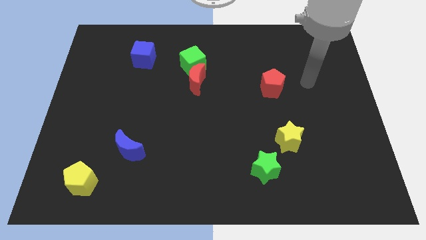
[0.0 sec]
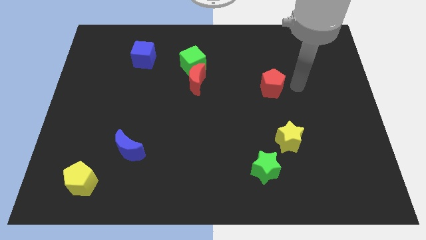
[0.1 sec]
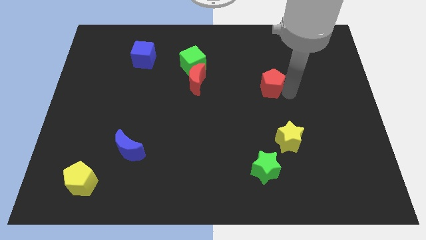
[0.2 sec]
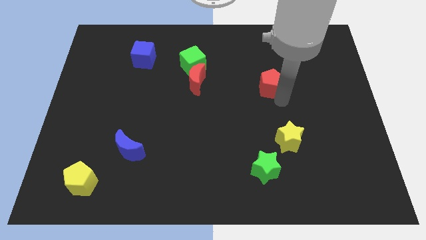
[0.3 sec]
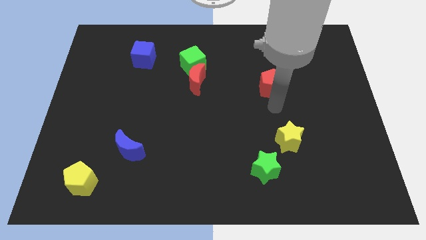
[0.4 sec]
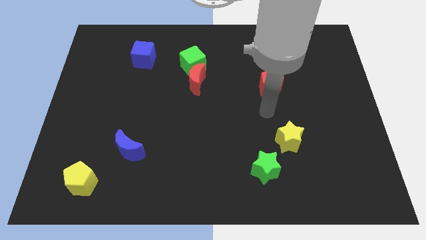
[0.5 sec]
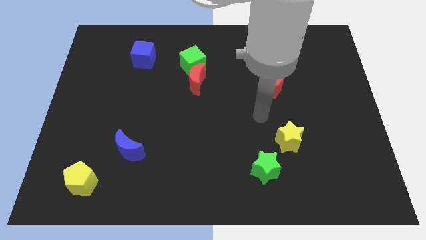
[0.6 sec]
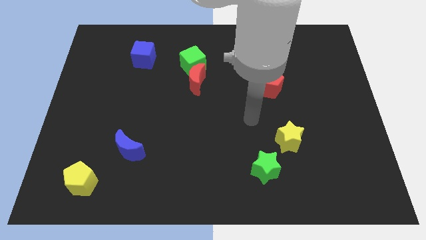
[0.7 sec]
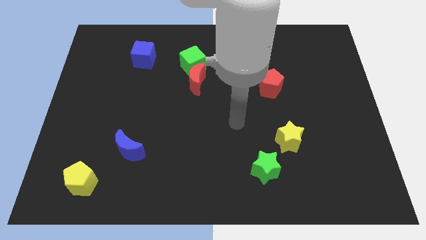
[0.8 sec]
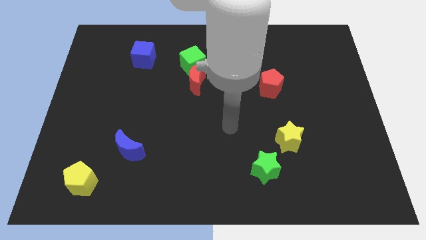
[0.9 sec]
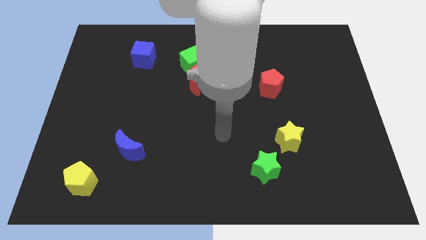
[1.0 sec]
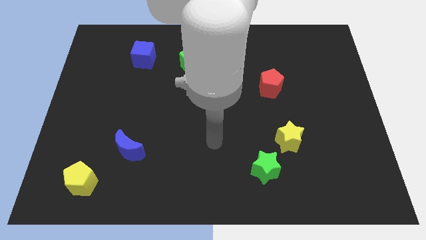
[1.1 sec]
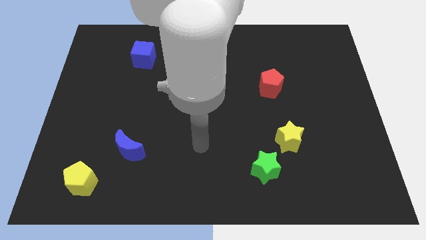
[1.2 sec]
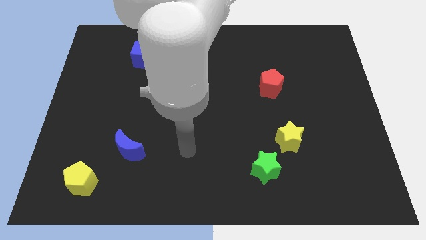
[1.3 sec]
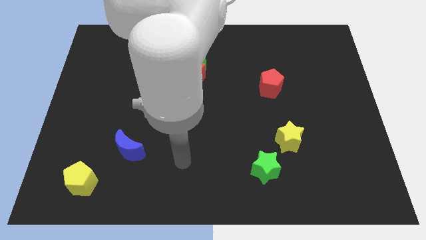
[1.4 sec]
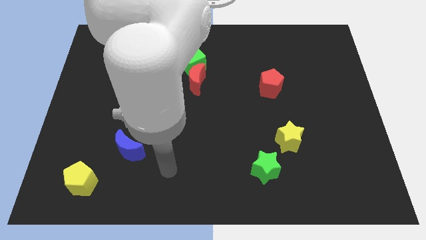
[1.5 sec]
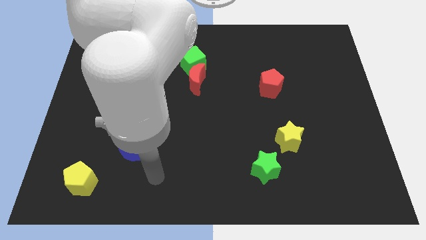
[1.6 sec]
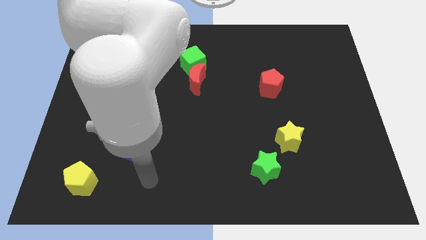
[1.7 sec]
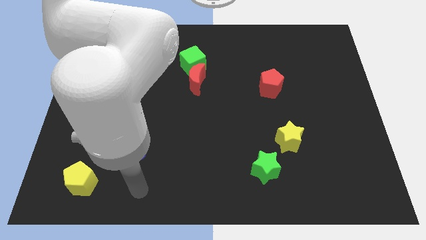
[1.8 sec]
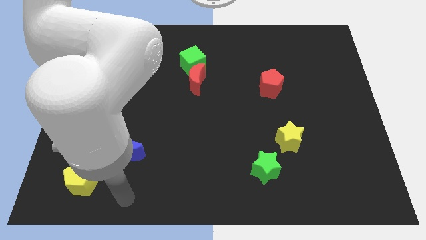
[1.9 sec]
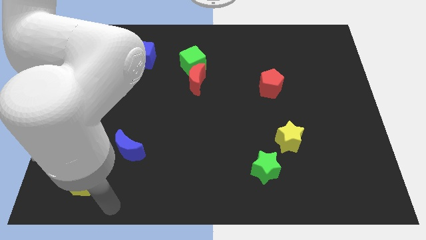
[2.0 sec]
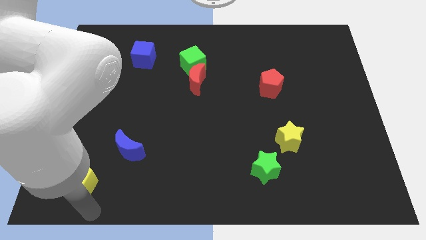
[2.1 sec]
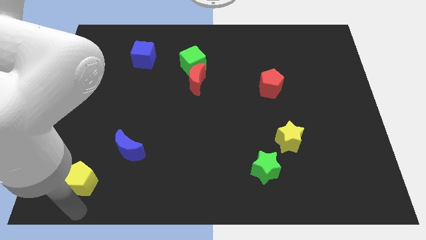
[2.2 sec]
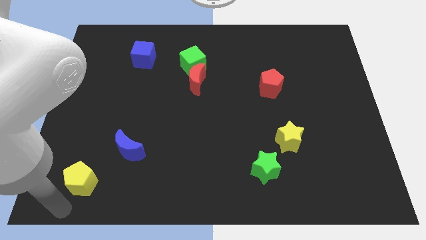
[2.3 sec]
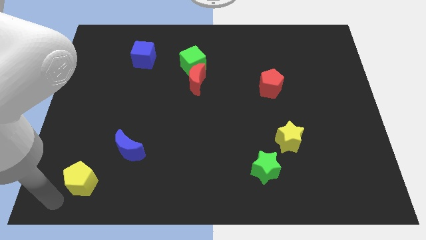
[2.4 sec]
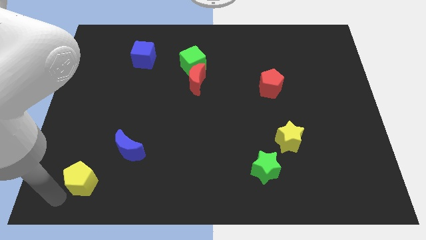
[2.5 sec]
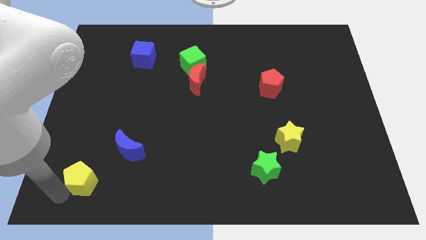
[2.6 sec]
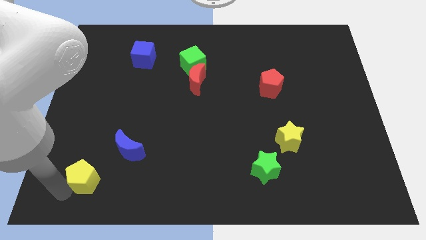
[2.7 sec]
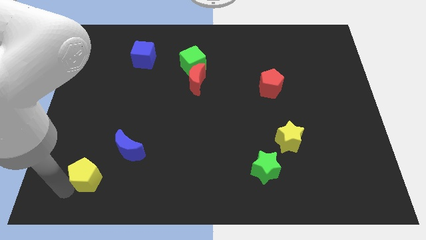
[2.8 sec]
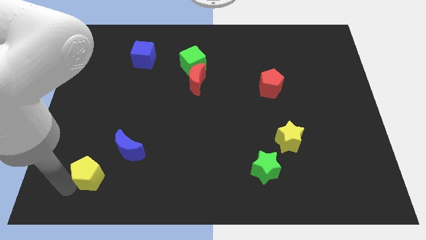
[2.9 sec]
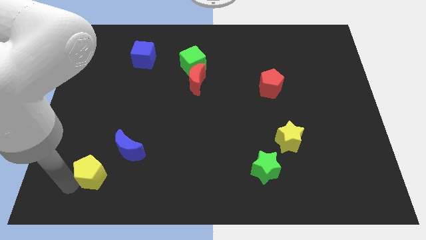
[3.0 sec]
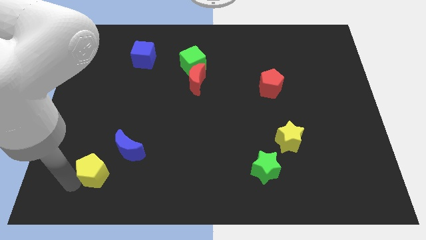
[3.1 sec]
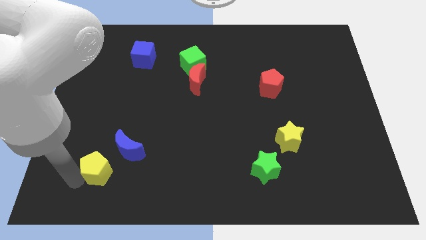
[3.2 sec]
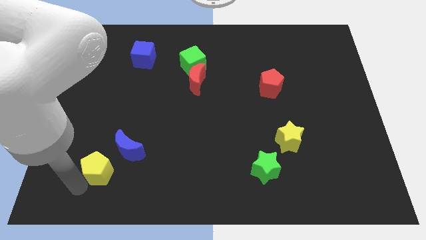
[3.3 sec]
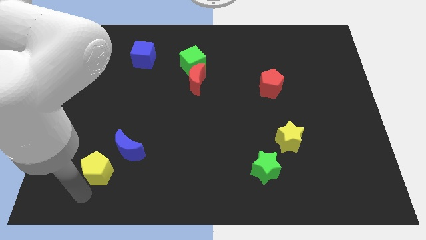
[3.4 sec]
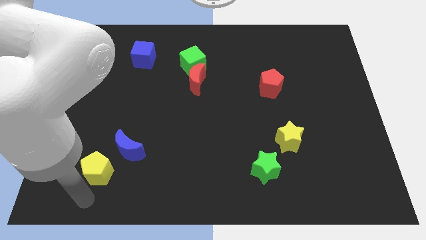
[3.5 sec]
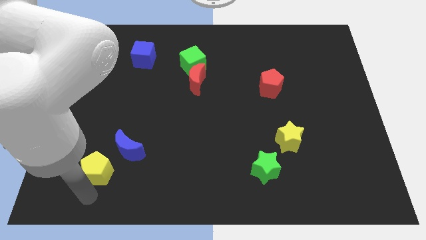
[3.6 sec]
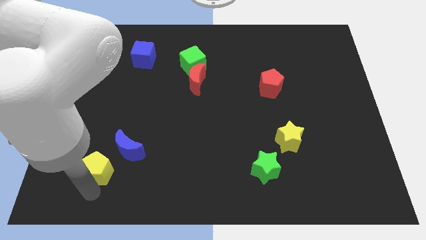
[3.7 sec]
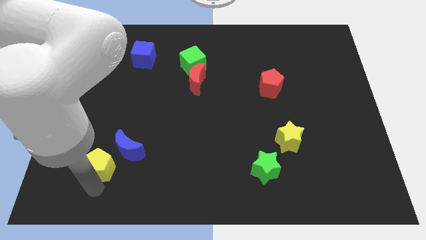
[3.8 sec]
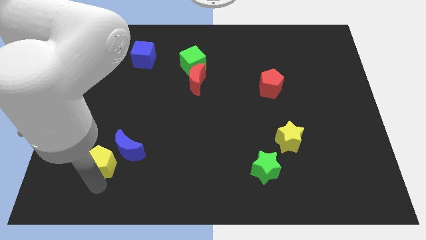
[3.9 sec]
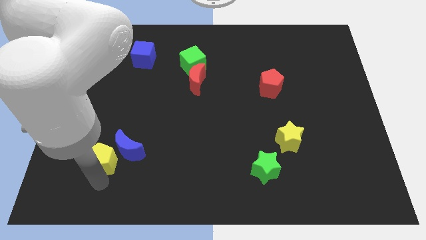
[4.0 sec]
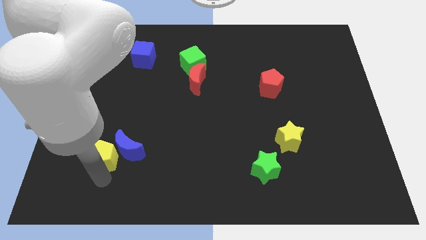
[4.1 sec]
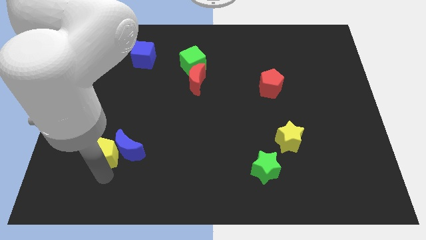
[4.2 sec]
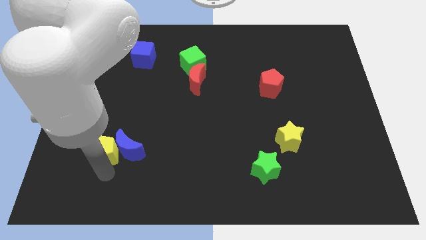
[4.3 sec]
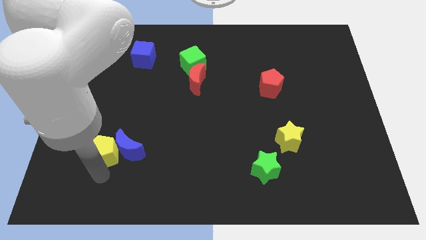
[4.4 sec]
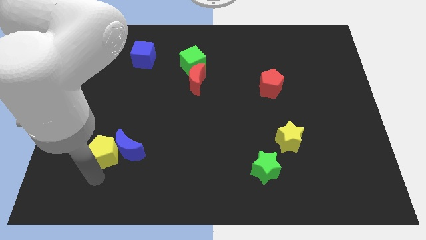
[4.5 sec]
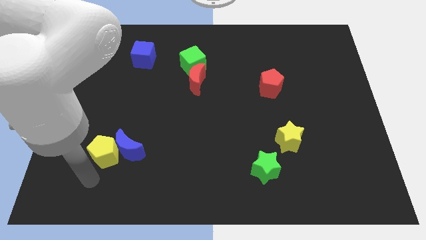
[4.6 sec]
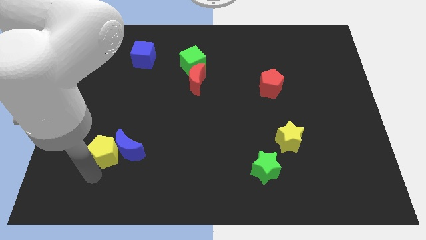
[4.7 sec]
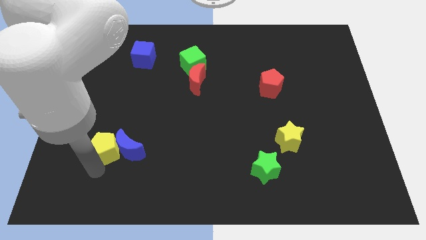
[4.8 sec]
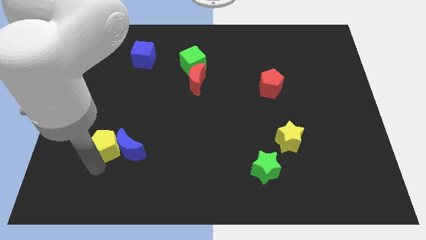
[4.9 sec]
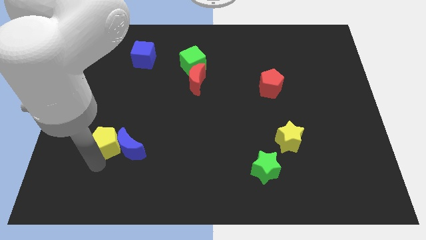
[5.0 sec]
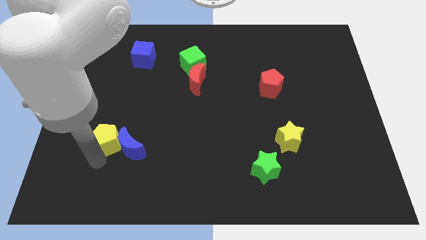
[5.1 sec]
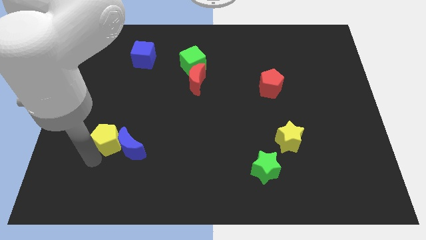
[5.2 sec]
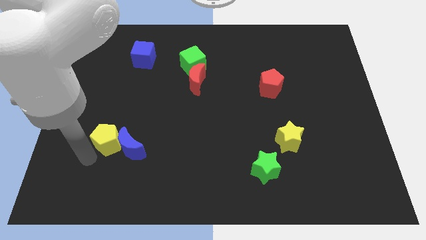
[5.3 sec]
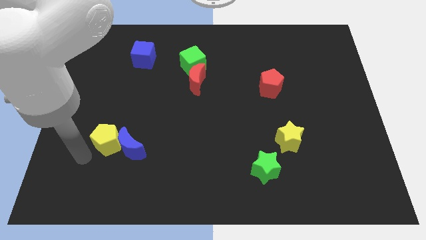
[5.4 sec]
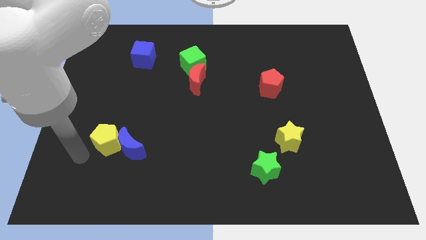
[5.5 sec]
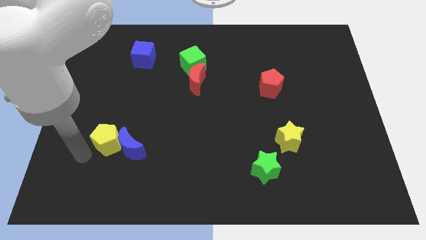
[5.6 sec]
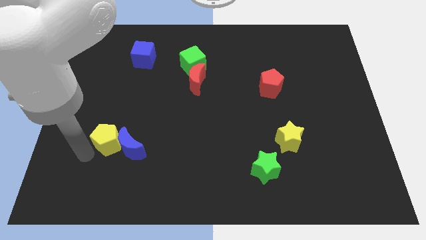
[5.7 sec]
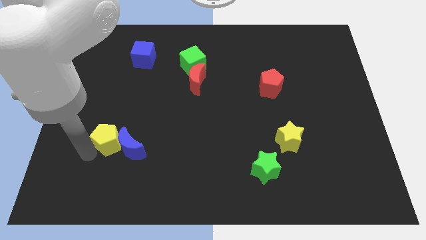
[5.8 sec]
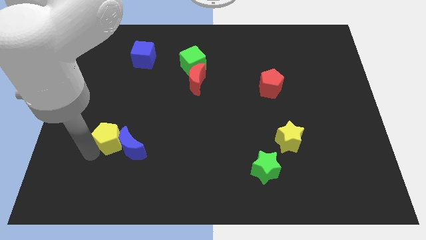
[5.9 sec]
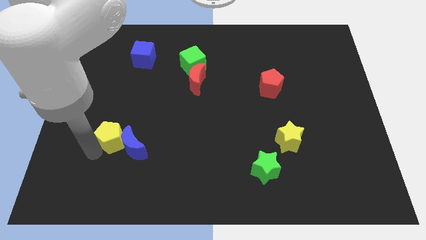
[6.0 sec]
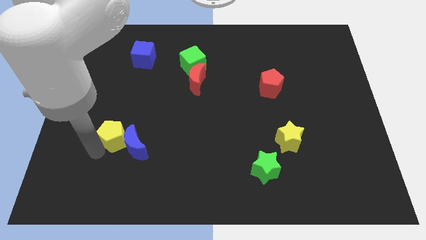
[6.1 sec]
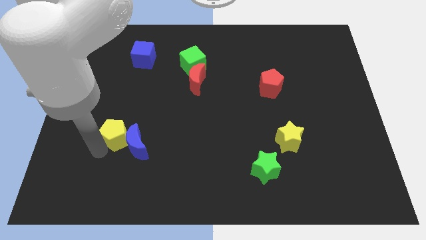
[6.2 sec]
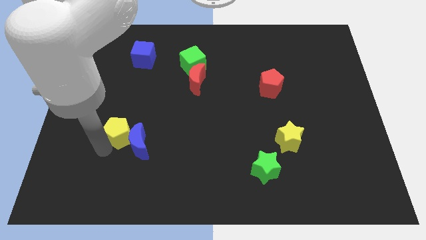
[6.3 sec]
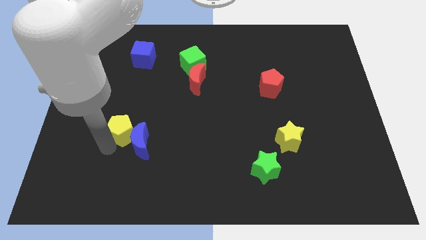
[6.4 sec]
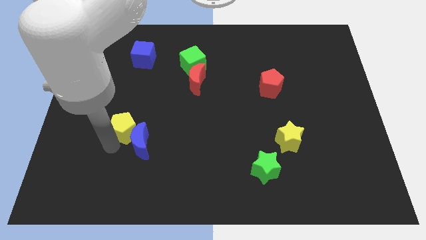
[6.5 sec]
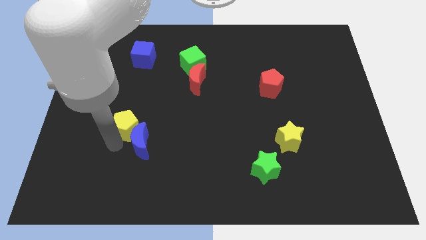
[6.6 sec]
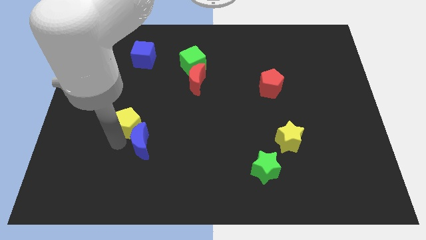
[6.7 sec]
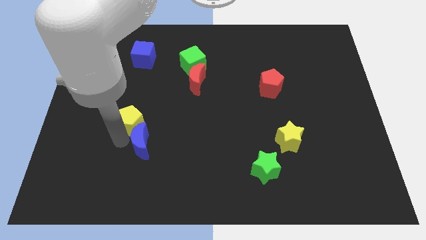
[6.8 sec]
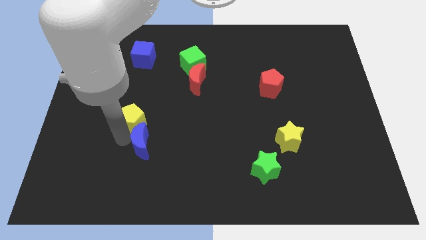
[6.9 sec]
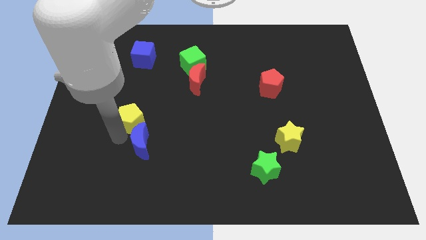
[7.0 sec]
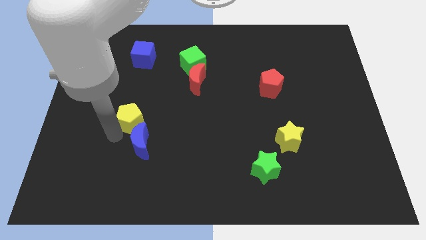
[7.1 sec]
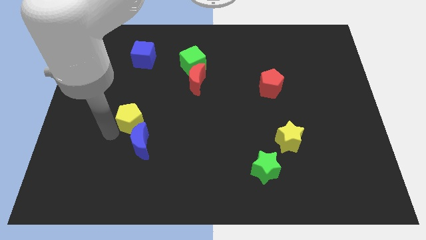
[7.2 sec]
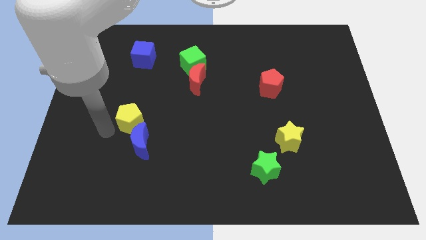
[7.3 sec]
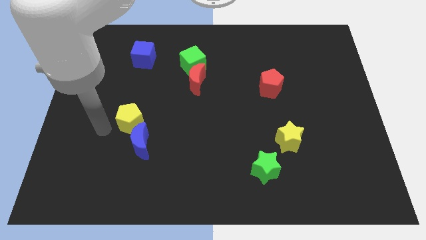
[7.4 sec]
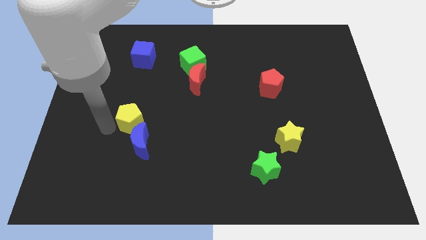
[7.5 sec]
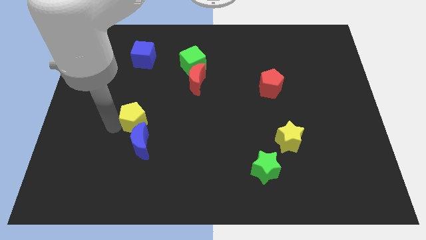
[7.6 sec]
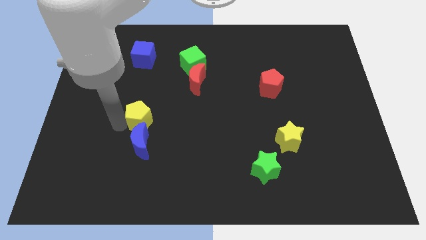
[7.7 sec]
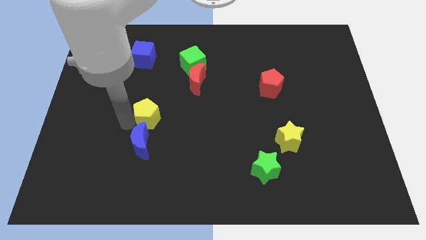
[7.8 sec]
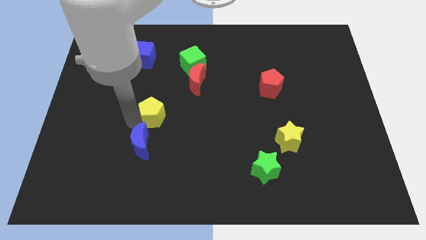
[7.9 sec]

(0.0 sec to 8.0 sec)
slide the yellow pentagon diagonally up and right

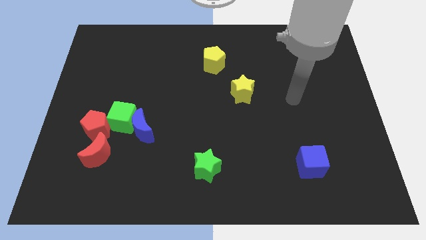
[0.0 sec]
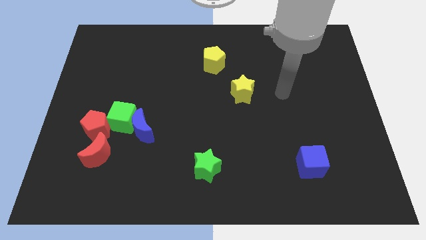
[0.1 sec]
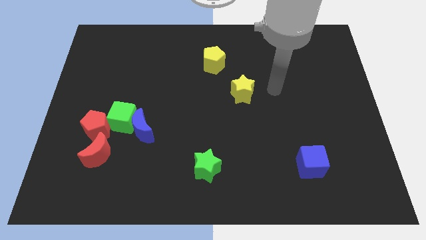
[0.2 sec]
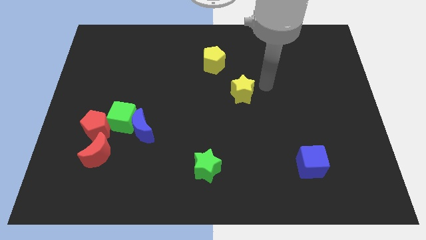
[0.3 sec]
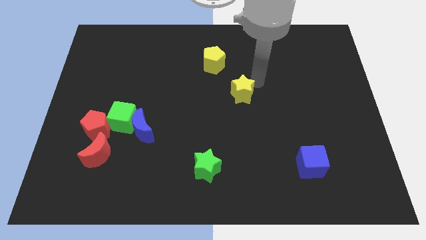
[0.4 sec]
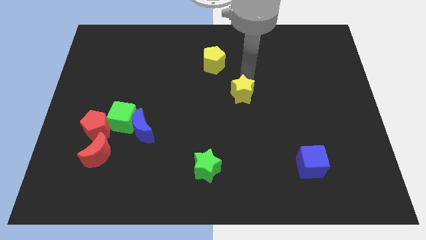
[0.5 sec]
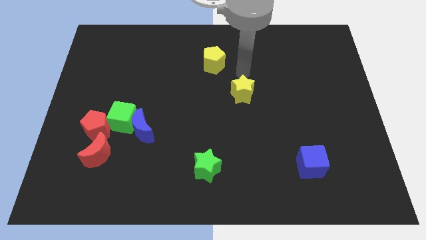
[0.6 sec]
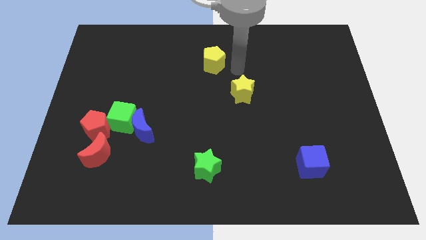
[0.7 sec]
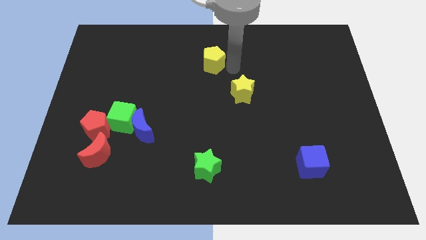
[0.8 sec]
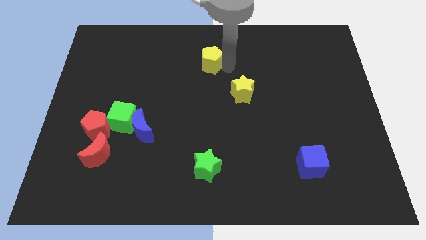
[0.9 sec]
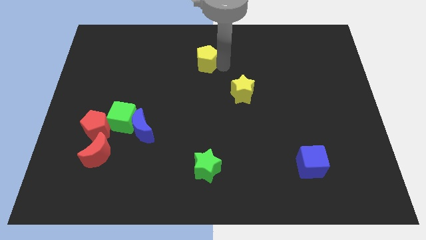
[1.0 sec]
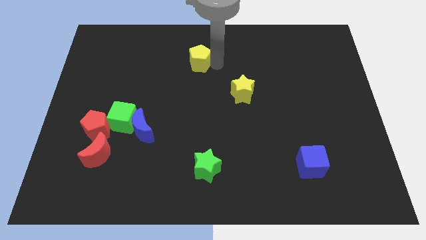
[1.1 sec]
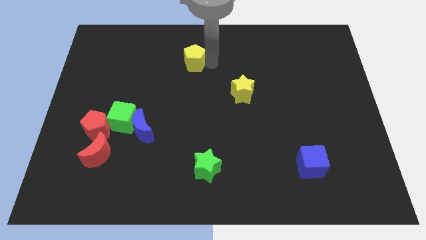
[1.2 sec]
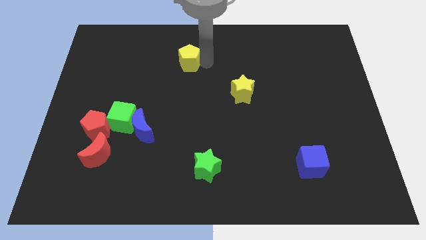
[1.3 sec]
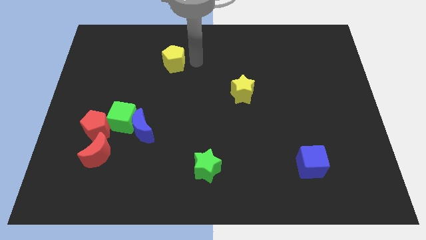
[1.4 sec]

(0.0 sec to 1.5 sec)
slide the yellow pentagon left a little bit
